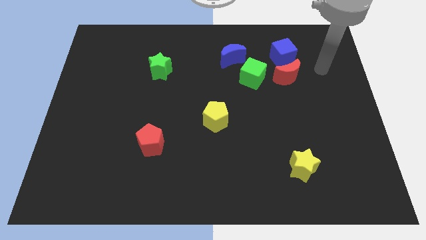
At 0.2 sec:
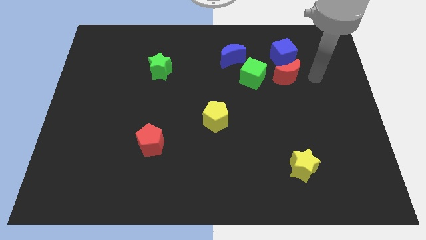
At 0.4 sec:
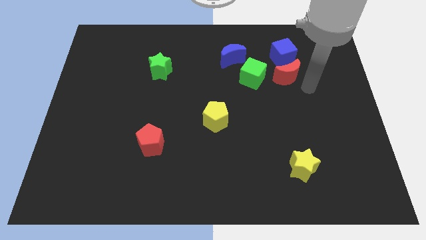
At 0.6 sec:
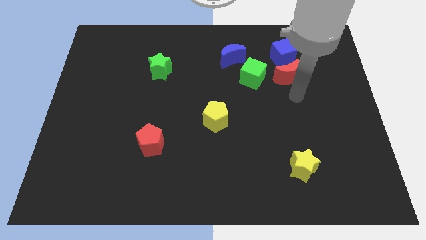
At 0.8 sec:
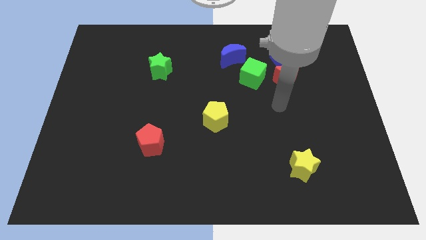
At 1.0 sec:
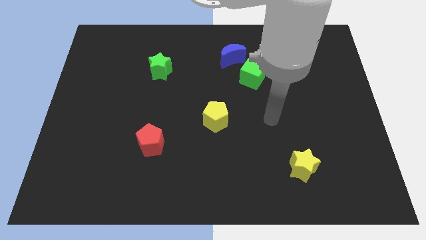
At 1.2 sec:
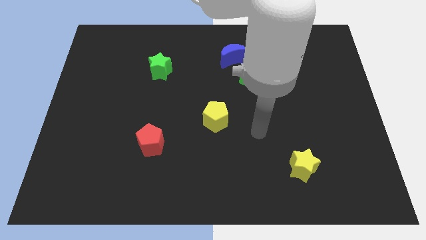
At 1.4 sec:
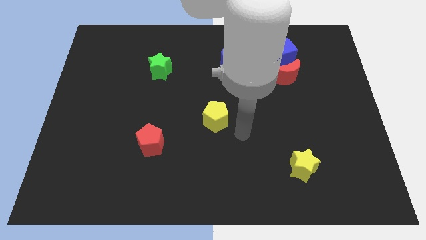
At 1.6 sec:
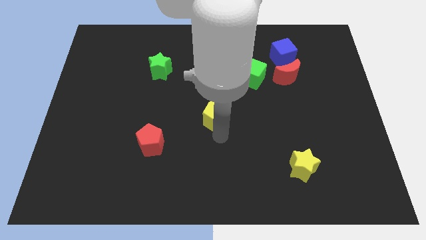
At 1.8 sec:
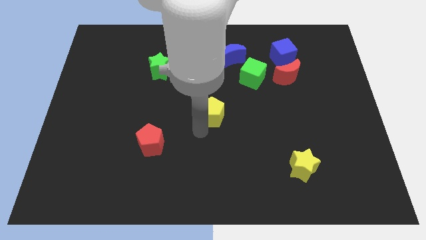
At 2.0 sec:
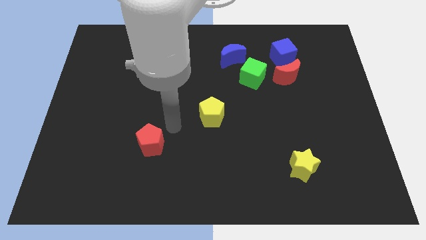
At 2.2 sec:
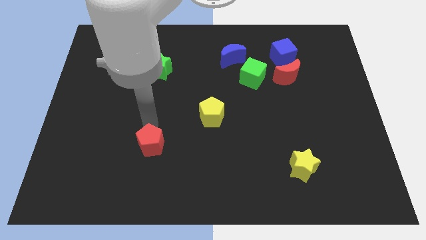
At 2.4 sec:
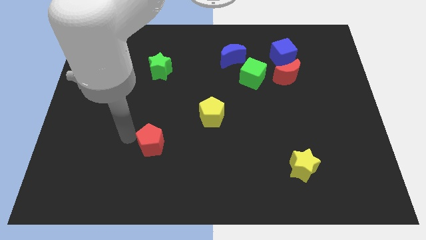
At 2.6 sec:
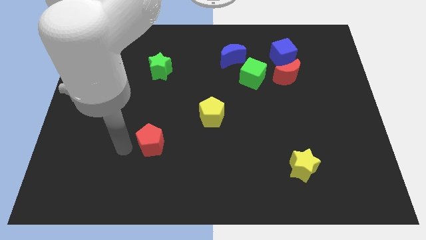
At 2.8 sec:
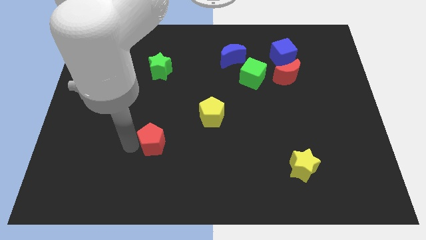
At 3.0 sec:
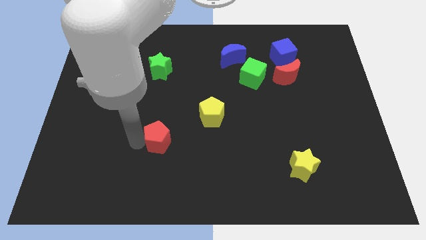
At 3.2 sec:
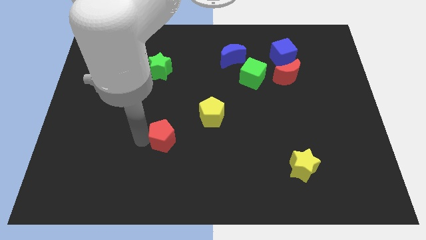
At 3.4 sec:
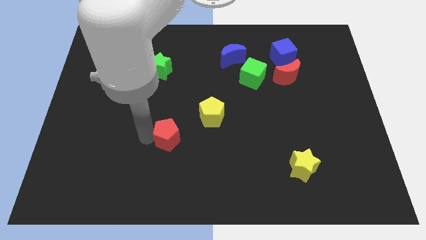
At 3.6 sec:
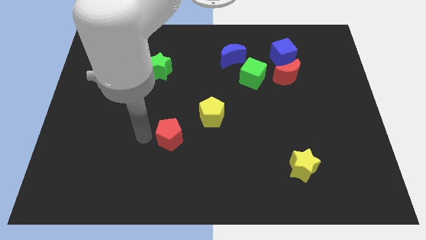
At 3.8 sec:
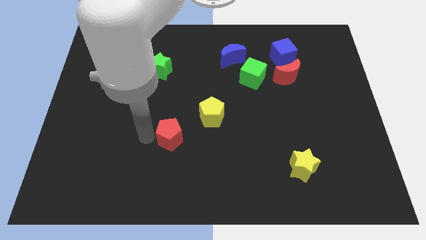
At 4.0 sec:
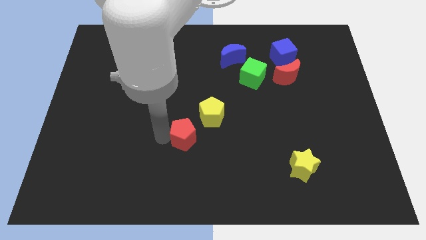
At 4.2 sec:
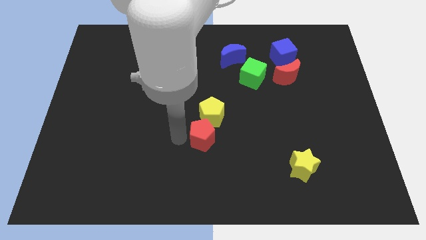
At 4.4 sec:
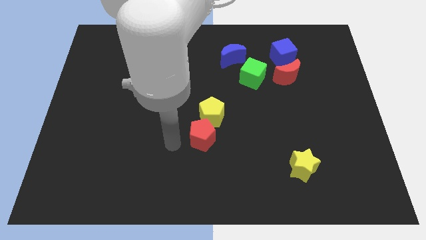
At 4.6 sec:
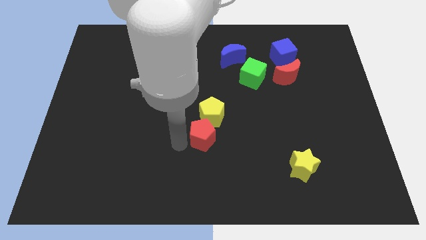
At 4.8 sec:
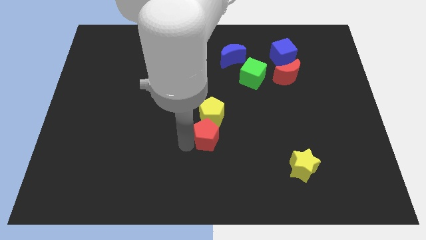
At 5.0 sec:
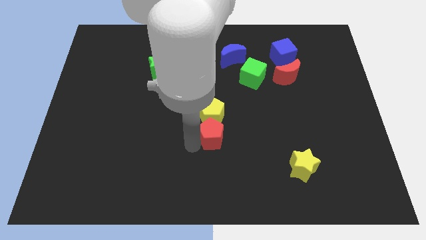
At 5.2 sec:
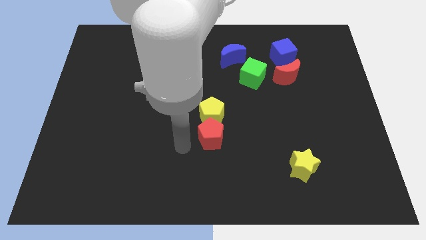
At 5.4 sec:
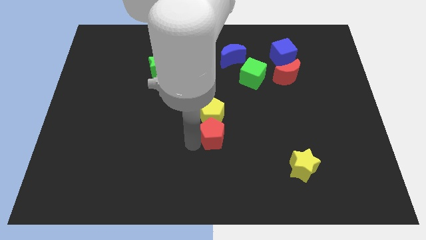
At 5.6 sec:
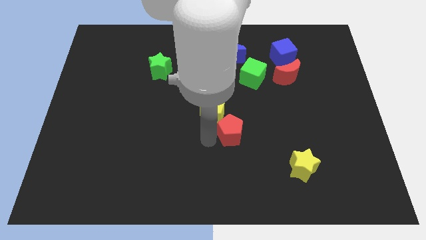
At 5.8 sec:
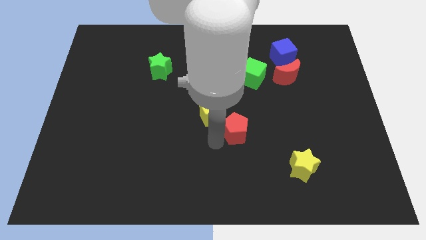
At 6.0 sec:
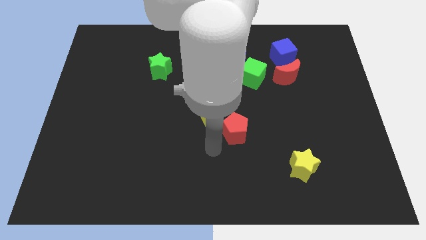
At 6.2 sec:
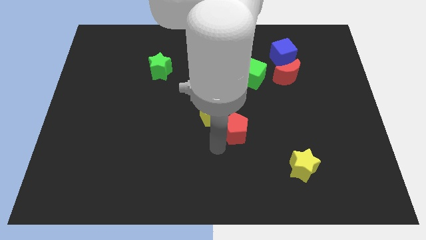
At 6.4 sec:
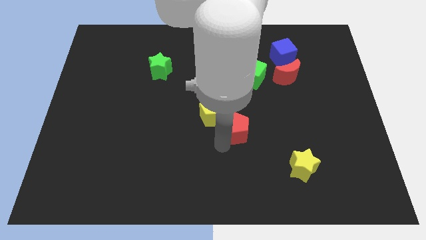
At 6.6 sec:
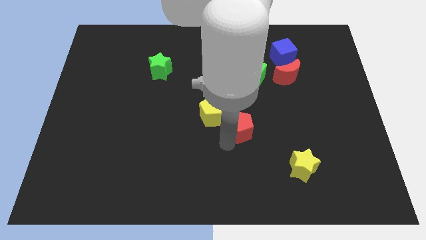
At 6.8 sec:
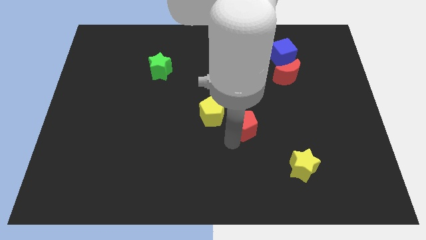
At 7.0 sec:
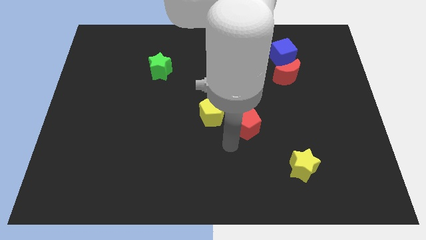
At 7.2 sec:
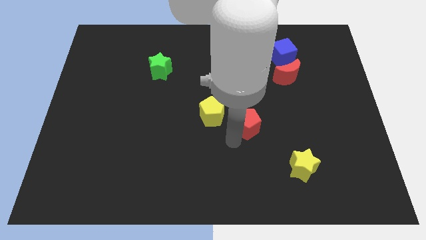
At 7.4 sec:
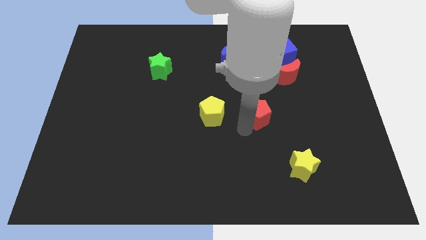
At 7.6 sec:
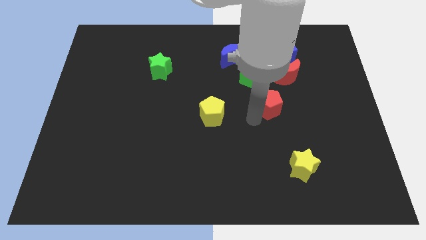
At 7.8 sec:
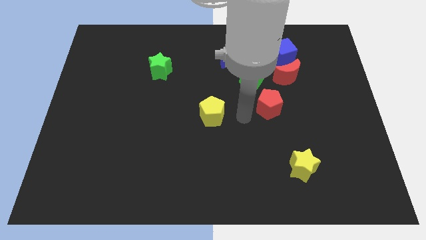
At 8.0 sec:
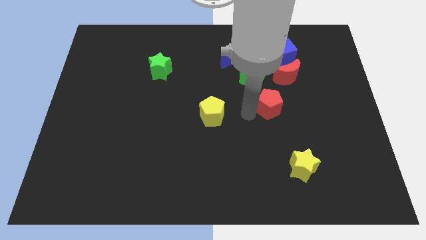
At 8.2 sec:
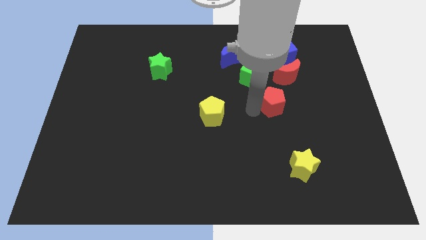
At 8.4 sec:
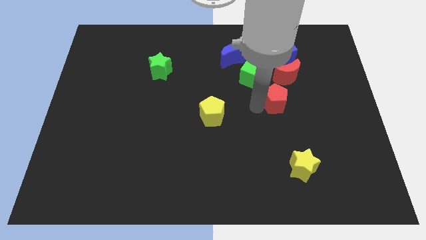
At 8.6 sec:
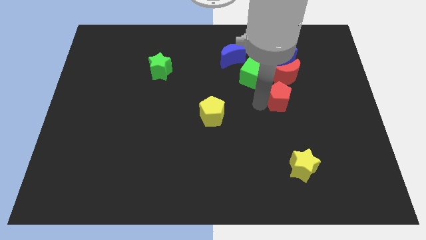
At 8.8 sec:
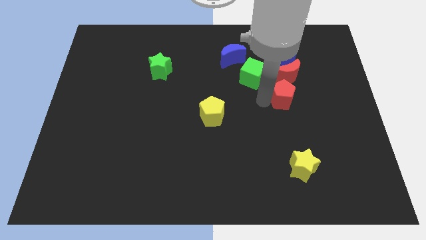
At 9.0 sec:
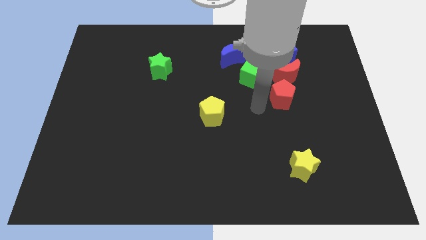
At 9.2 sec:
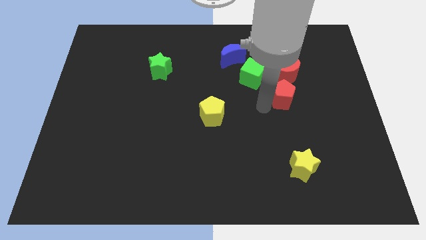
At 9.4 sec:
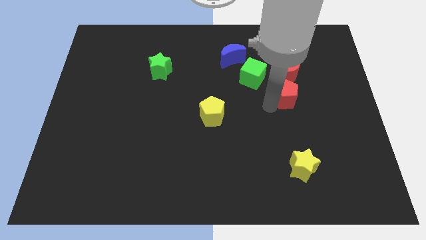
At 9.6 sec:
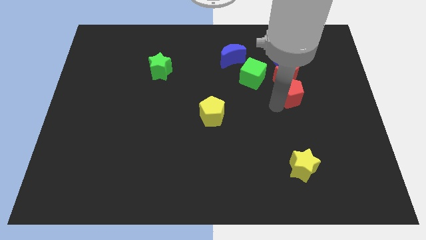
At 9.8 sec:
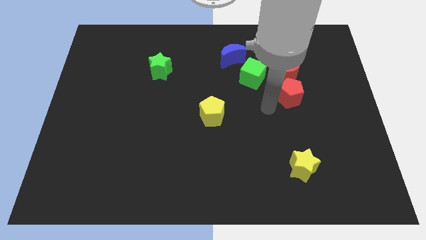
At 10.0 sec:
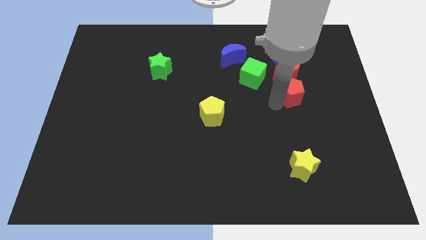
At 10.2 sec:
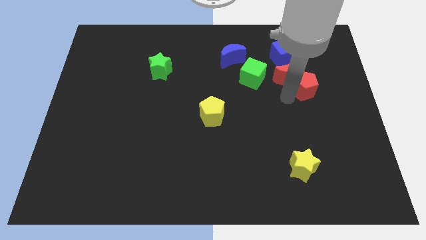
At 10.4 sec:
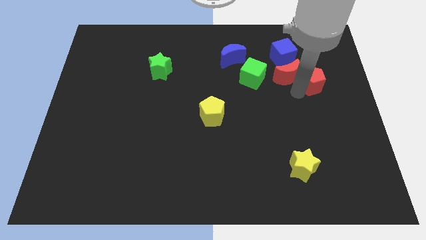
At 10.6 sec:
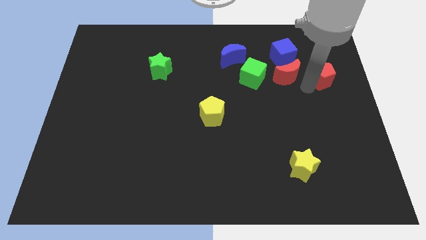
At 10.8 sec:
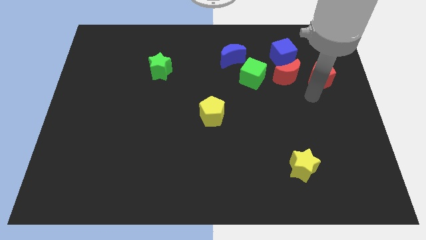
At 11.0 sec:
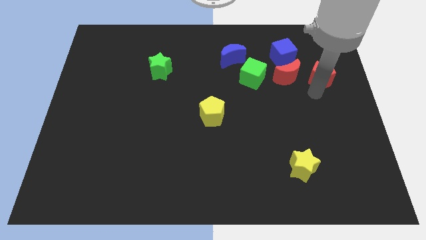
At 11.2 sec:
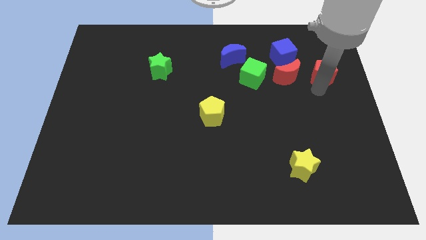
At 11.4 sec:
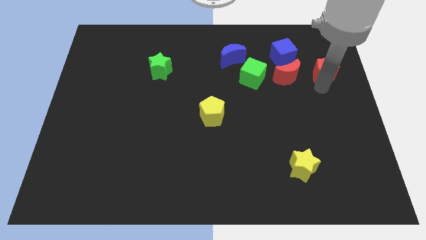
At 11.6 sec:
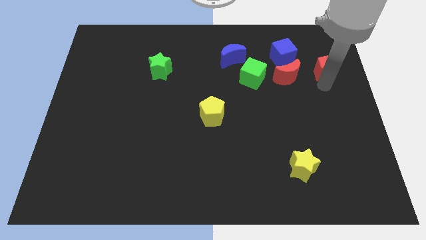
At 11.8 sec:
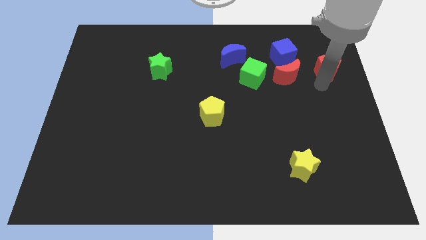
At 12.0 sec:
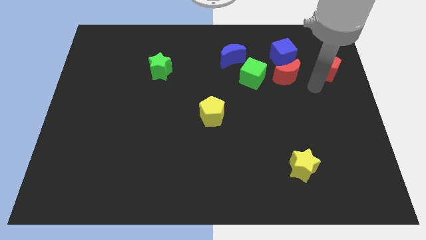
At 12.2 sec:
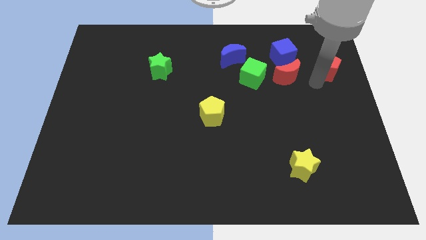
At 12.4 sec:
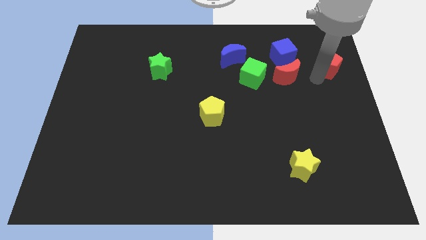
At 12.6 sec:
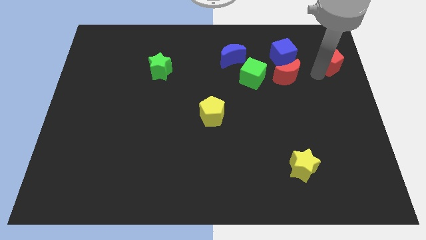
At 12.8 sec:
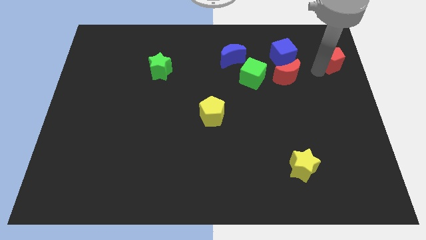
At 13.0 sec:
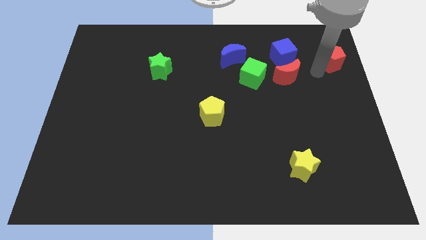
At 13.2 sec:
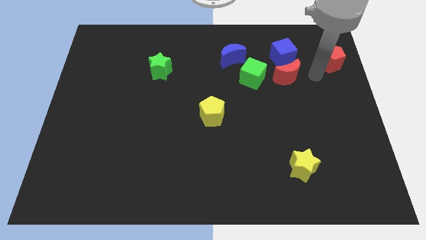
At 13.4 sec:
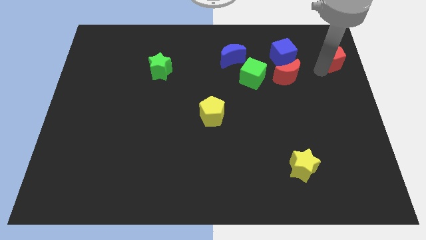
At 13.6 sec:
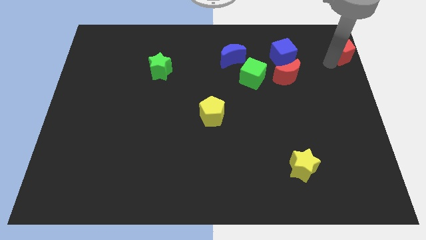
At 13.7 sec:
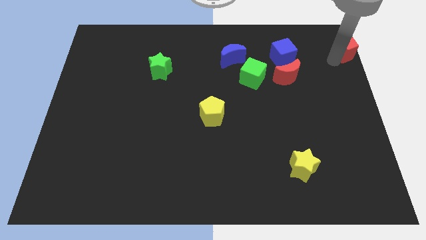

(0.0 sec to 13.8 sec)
put the red pentagon to the upper right corner

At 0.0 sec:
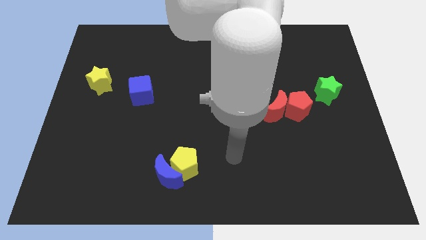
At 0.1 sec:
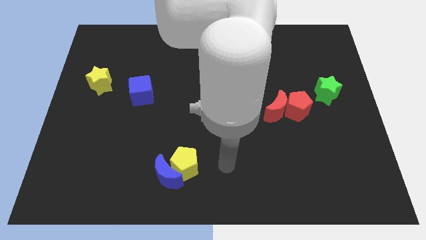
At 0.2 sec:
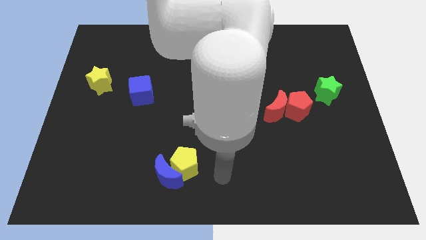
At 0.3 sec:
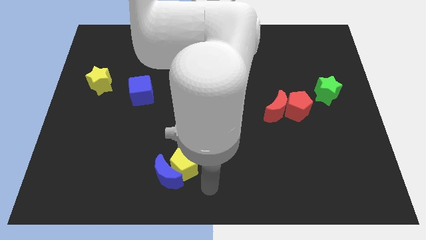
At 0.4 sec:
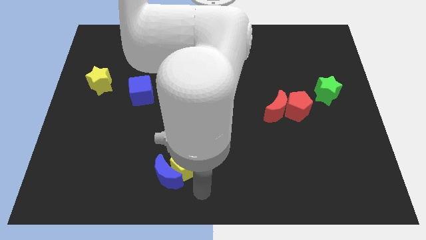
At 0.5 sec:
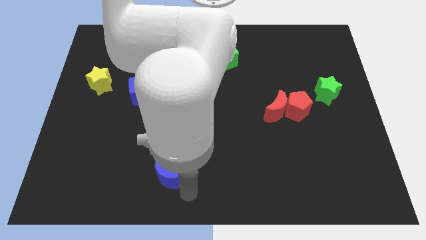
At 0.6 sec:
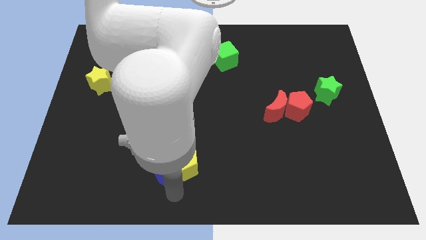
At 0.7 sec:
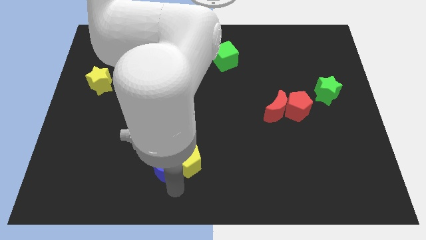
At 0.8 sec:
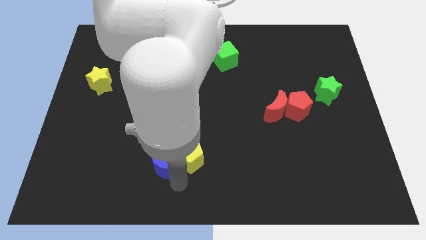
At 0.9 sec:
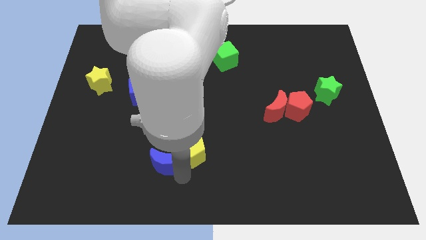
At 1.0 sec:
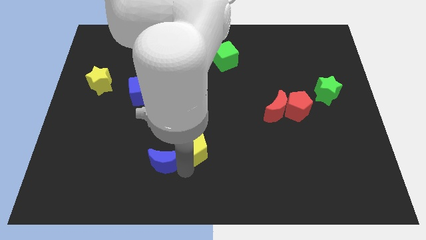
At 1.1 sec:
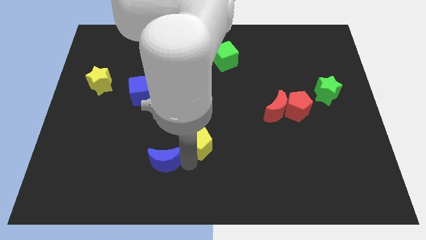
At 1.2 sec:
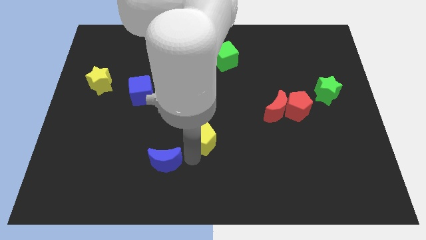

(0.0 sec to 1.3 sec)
put the yellow pentagon to the middle of the board
